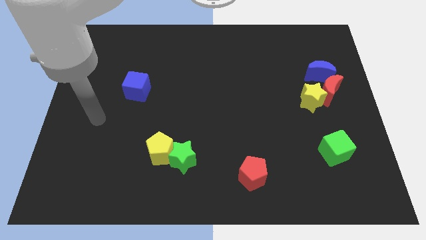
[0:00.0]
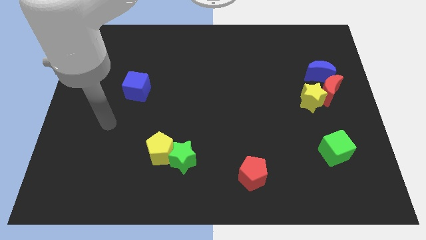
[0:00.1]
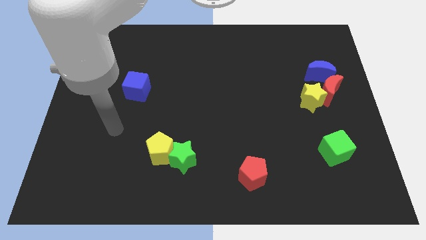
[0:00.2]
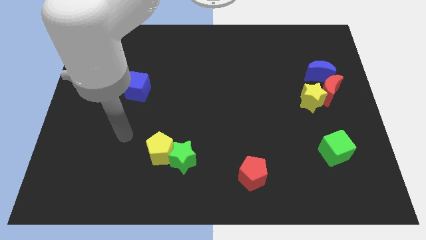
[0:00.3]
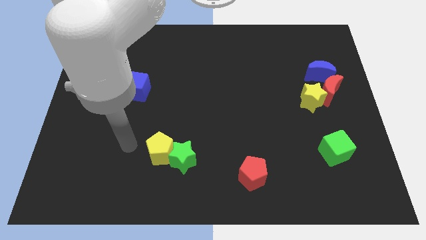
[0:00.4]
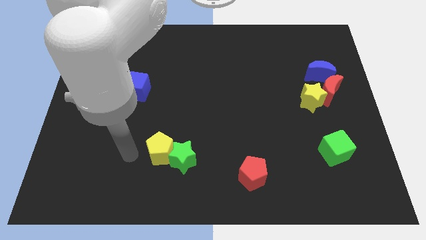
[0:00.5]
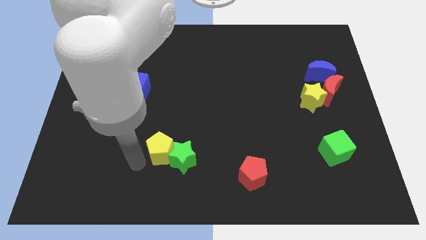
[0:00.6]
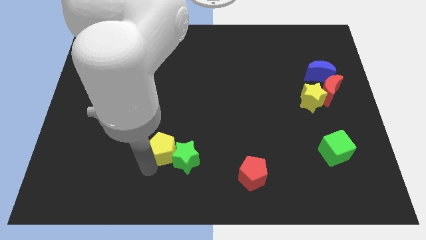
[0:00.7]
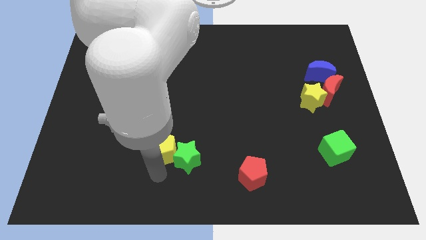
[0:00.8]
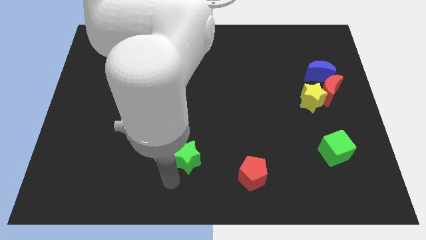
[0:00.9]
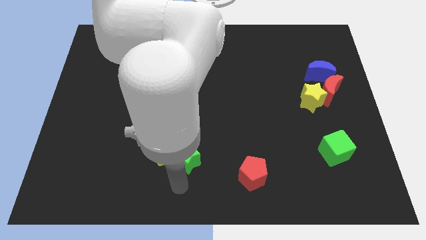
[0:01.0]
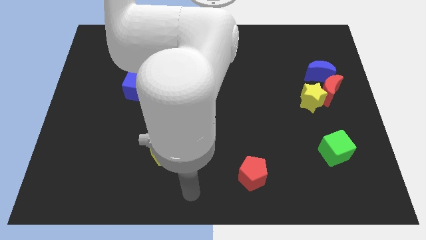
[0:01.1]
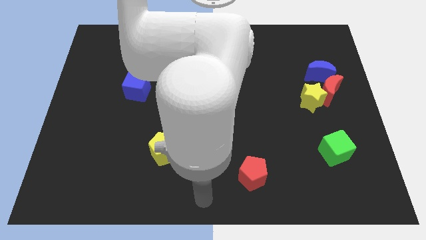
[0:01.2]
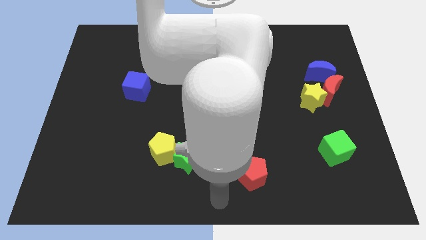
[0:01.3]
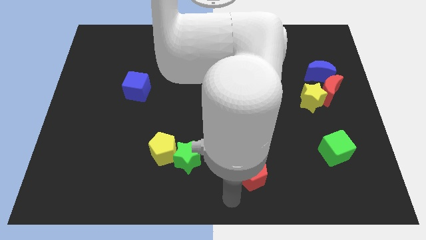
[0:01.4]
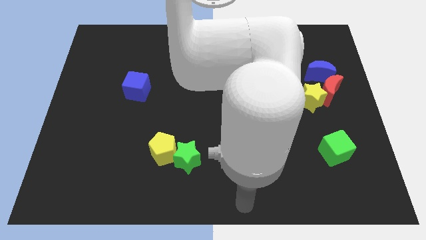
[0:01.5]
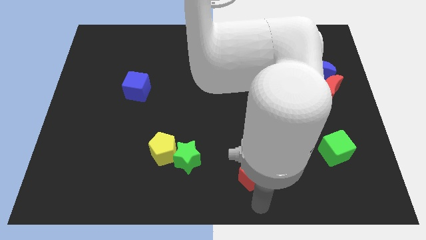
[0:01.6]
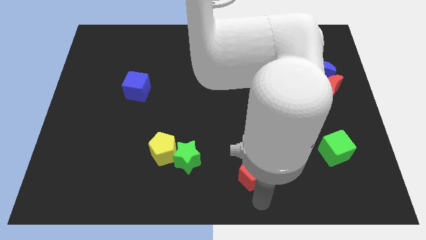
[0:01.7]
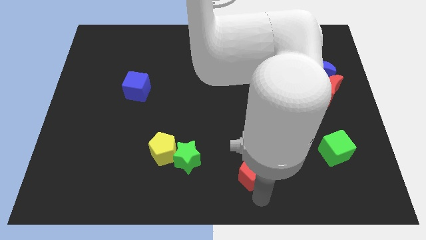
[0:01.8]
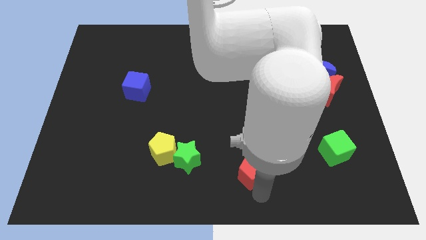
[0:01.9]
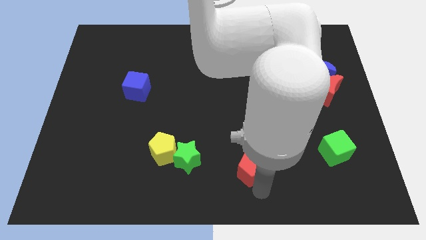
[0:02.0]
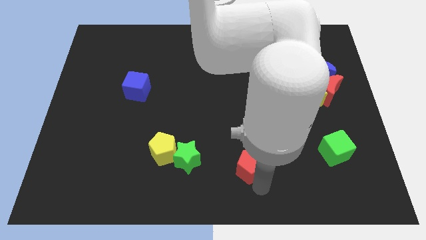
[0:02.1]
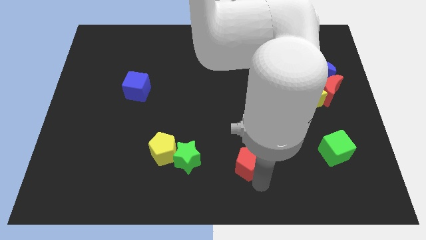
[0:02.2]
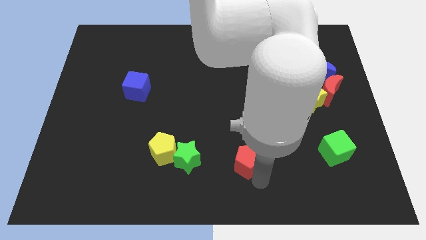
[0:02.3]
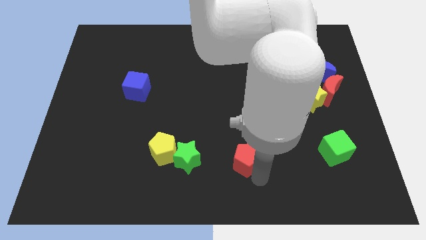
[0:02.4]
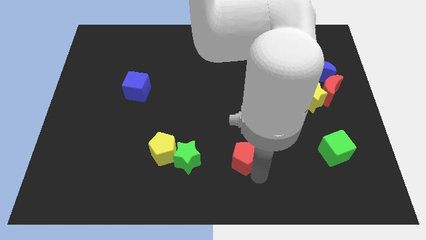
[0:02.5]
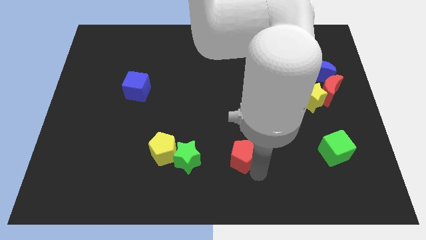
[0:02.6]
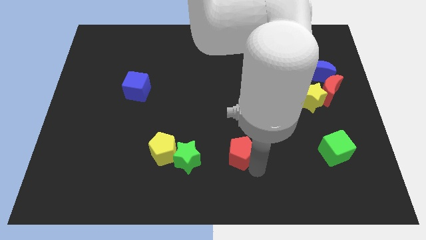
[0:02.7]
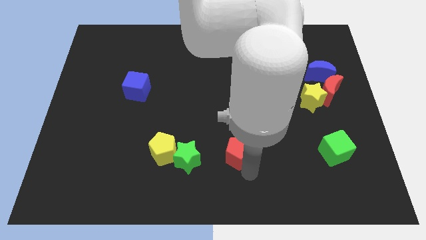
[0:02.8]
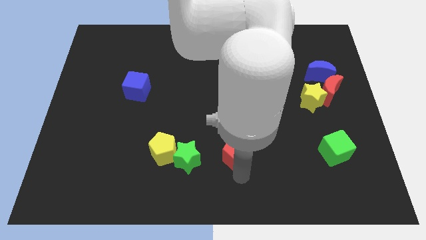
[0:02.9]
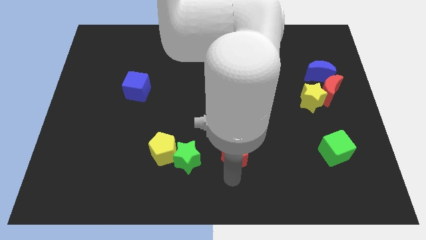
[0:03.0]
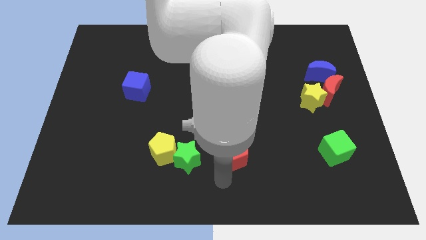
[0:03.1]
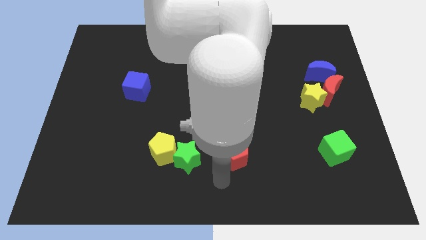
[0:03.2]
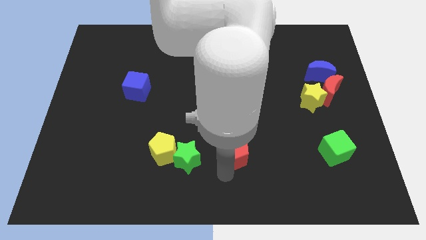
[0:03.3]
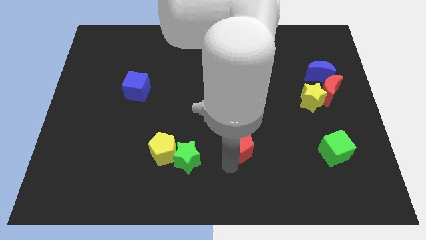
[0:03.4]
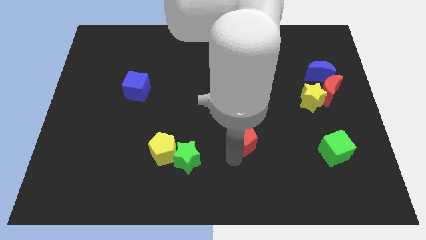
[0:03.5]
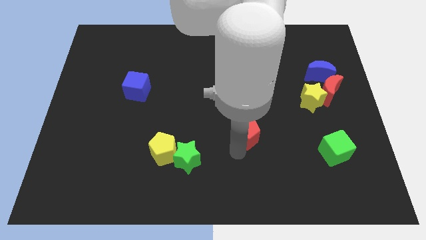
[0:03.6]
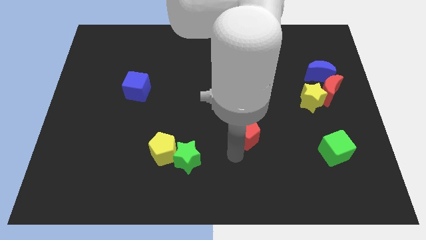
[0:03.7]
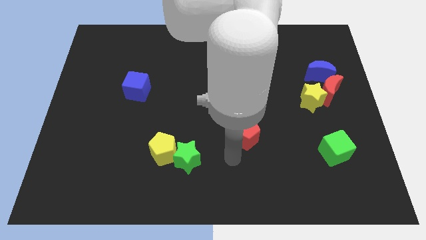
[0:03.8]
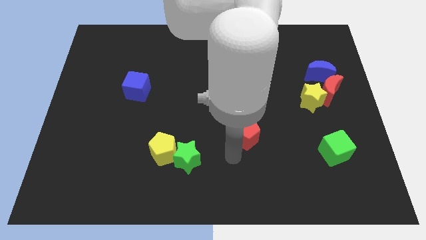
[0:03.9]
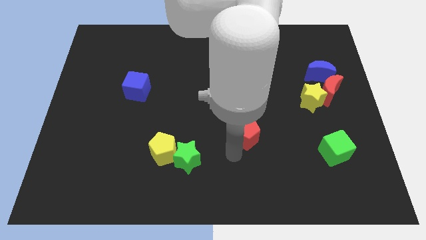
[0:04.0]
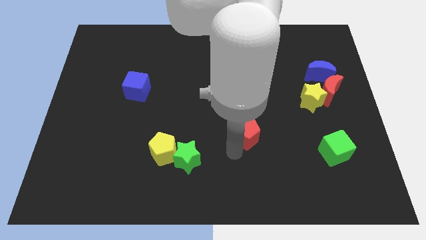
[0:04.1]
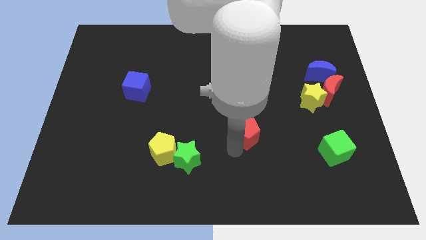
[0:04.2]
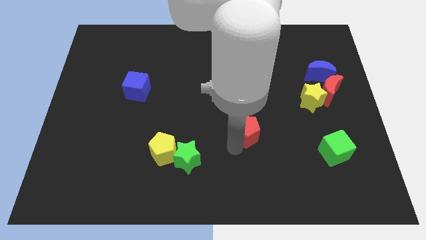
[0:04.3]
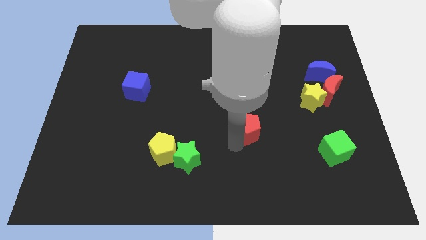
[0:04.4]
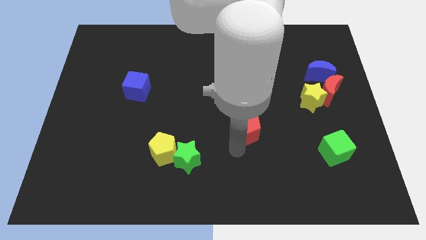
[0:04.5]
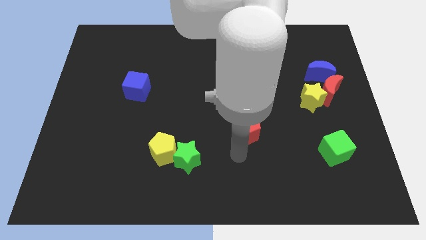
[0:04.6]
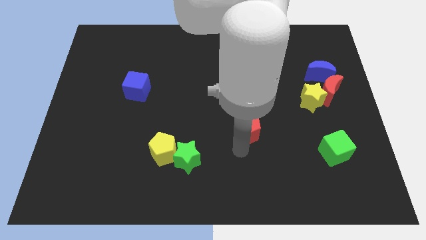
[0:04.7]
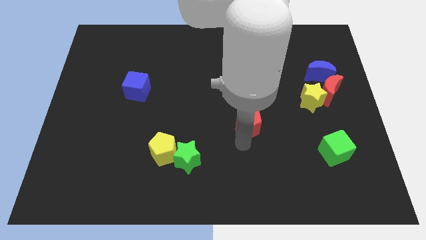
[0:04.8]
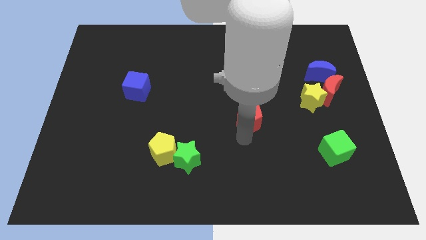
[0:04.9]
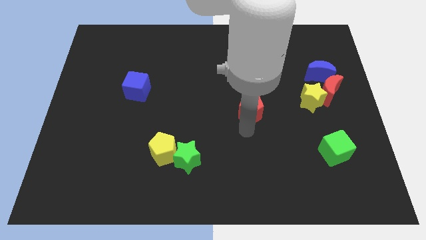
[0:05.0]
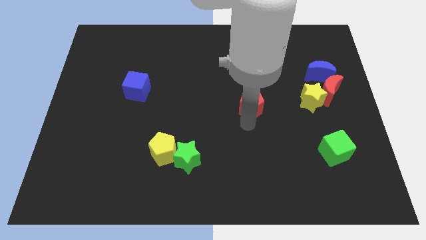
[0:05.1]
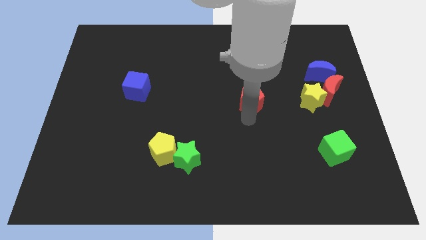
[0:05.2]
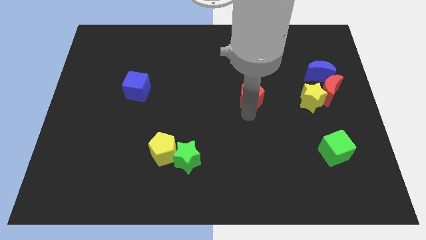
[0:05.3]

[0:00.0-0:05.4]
slide the red pentagon up

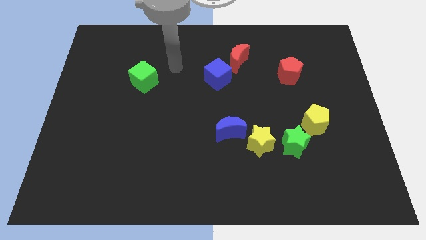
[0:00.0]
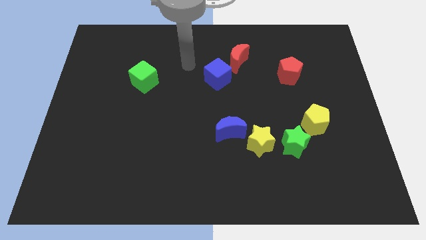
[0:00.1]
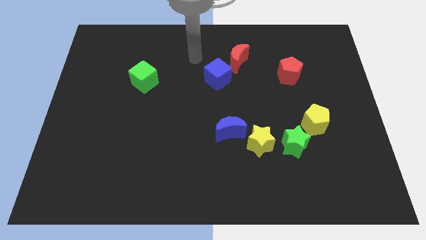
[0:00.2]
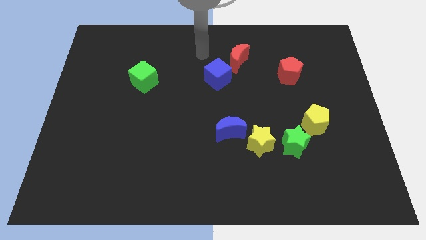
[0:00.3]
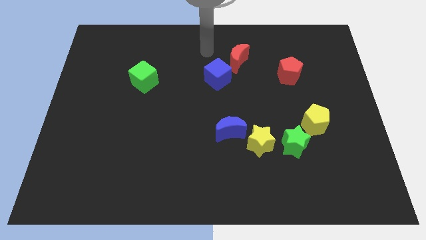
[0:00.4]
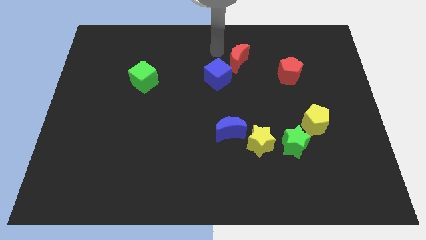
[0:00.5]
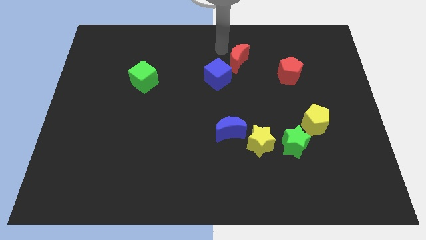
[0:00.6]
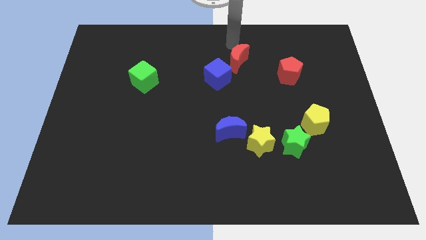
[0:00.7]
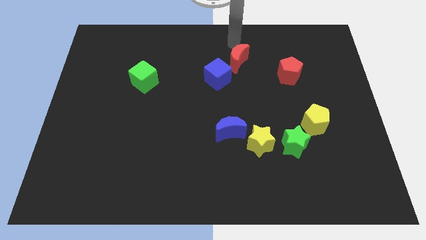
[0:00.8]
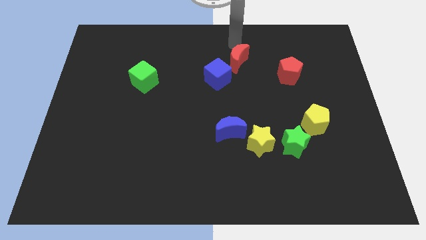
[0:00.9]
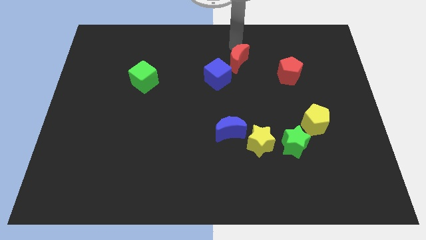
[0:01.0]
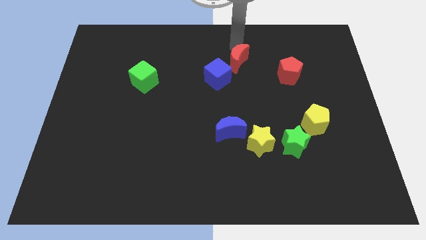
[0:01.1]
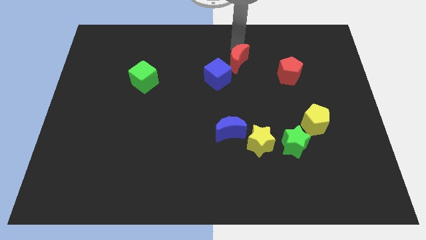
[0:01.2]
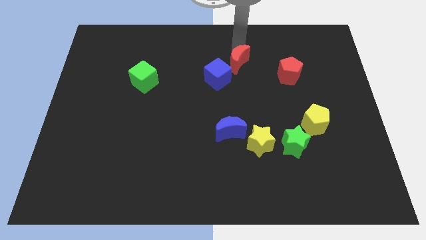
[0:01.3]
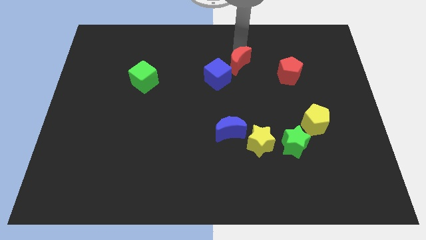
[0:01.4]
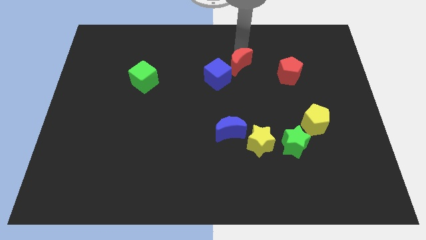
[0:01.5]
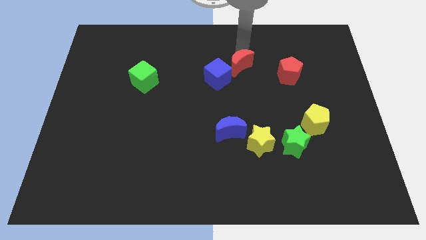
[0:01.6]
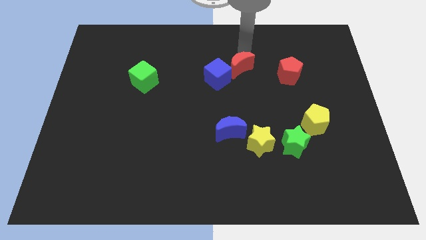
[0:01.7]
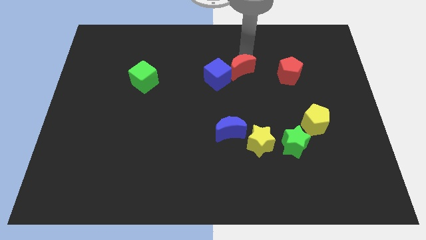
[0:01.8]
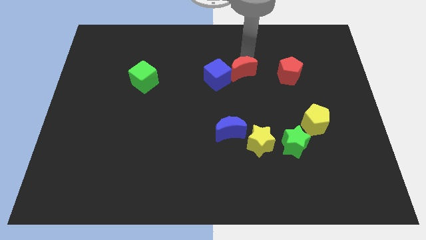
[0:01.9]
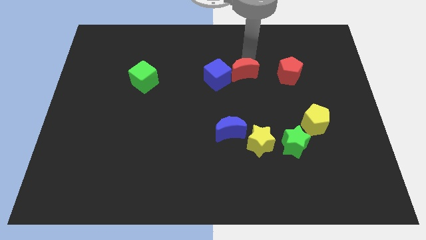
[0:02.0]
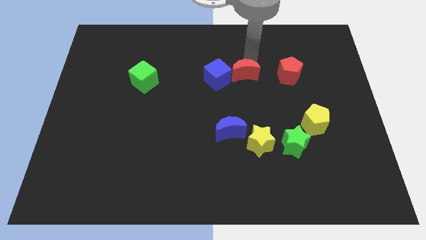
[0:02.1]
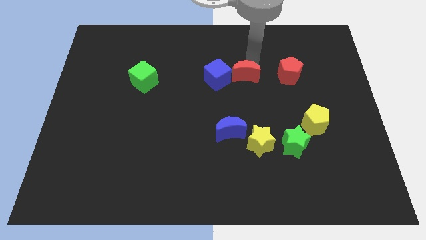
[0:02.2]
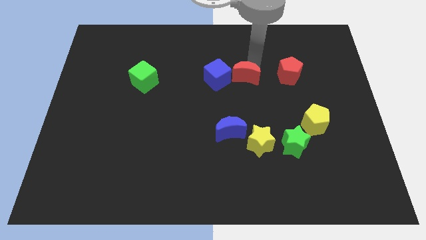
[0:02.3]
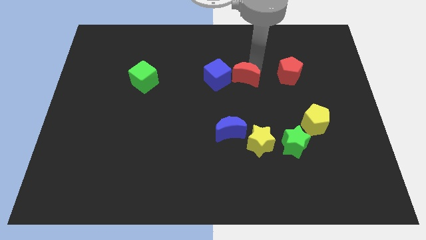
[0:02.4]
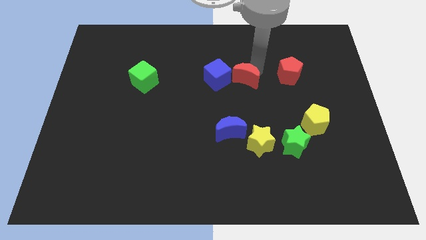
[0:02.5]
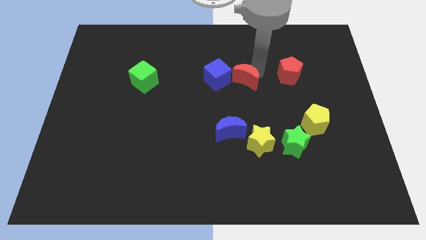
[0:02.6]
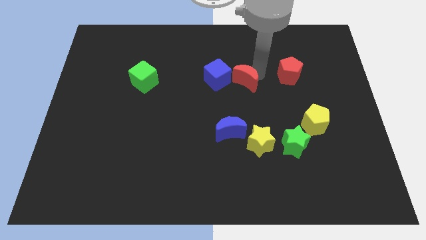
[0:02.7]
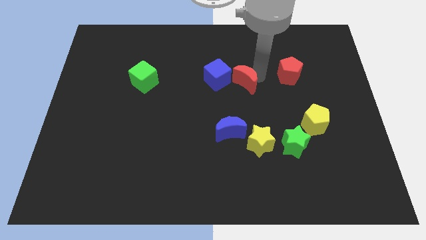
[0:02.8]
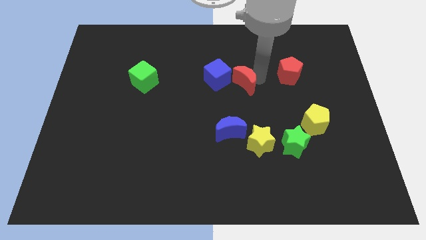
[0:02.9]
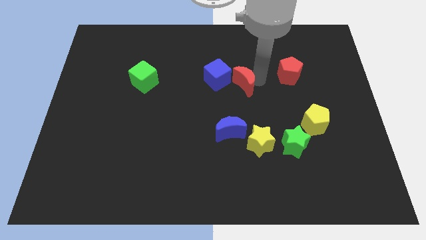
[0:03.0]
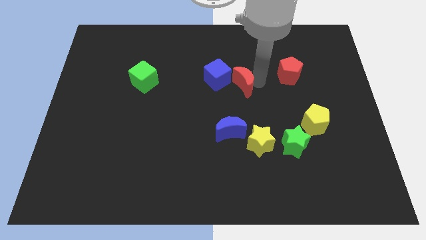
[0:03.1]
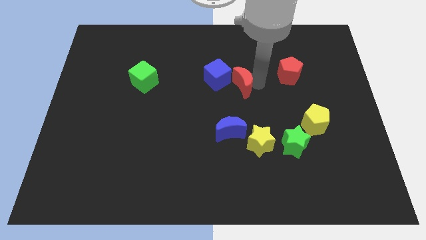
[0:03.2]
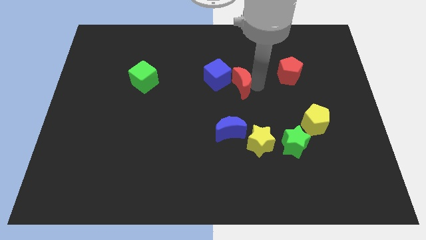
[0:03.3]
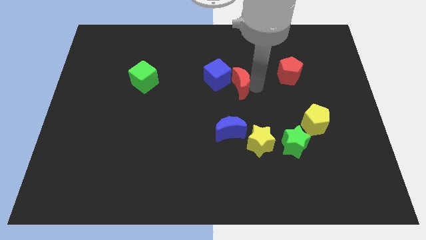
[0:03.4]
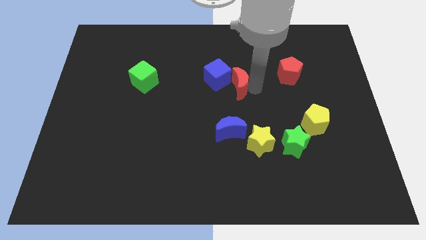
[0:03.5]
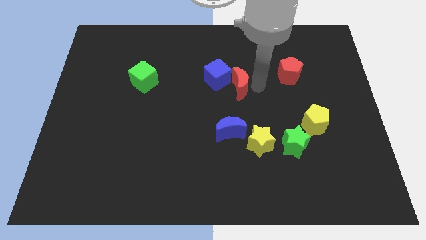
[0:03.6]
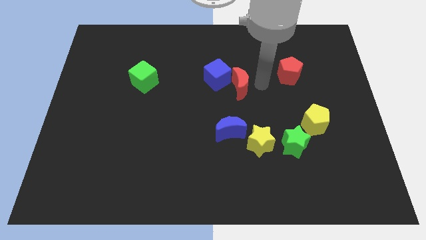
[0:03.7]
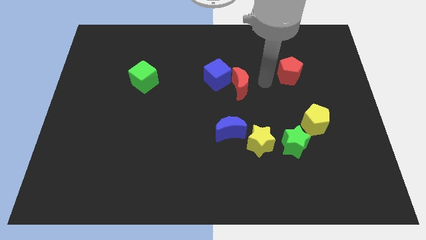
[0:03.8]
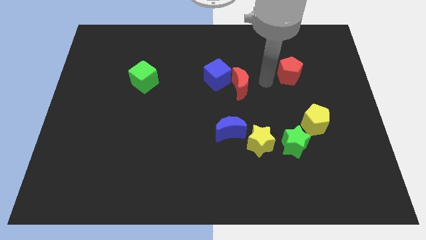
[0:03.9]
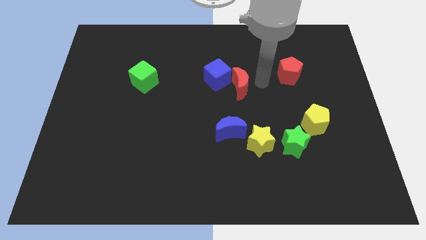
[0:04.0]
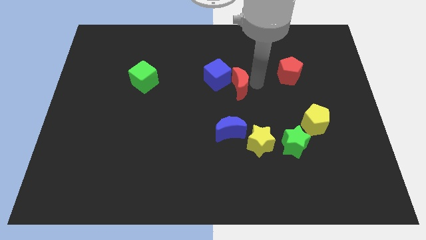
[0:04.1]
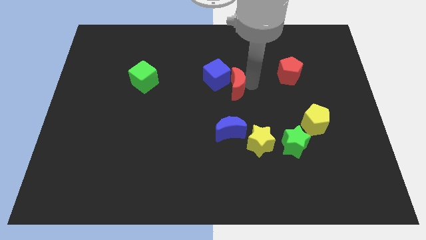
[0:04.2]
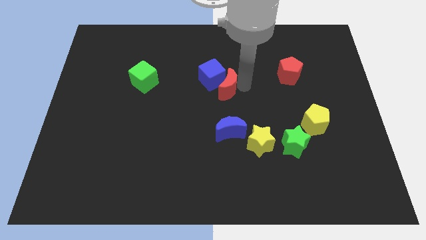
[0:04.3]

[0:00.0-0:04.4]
slightly slide the red moon downwards and then left
